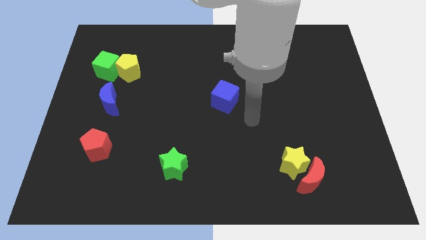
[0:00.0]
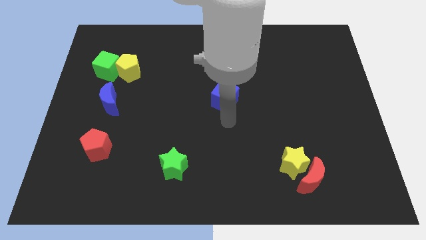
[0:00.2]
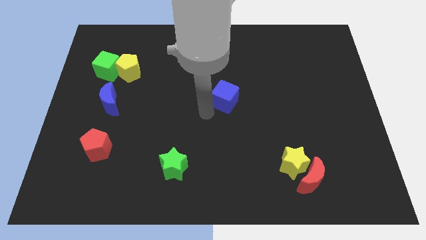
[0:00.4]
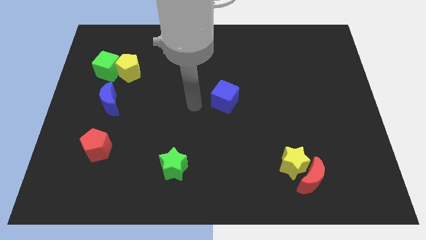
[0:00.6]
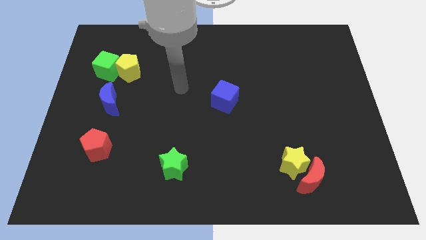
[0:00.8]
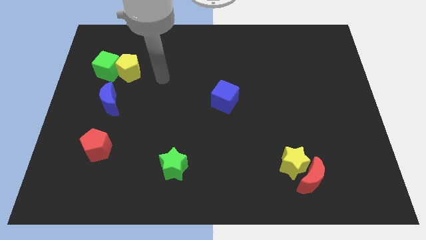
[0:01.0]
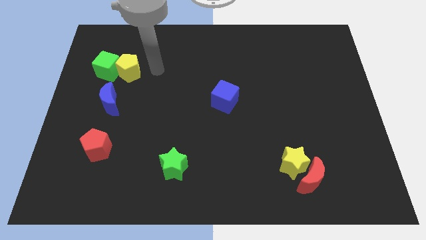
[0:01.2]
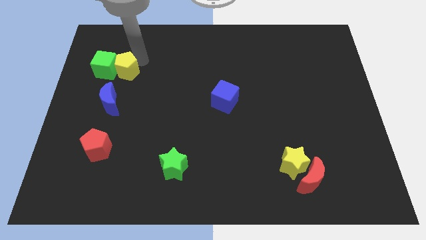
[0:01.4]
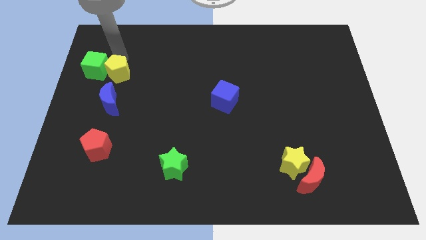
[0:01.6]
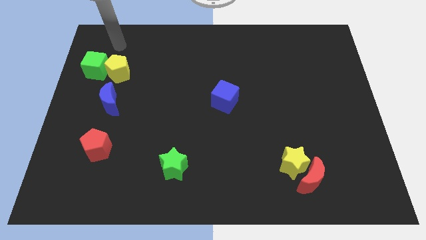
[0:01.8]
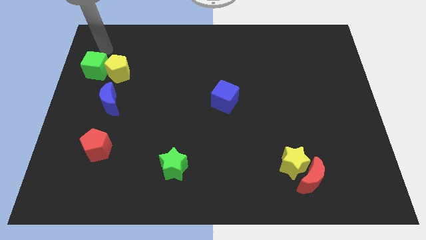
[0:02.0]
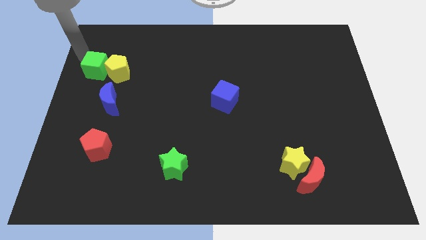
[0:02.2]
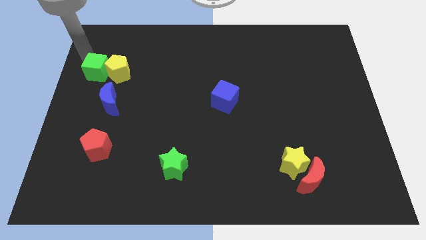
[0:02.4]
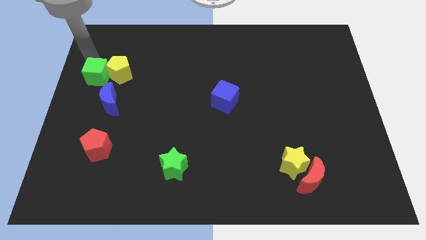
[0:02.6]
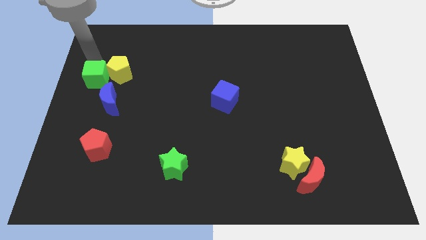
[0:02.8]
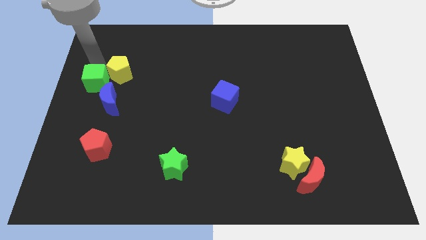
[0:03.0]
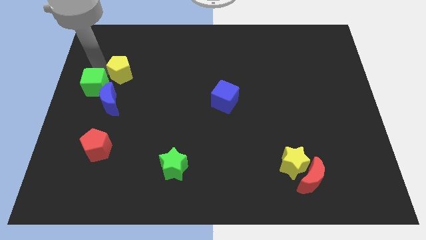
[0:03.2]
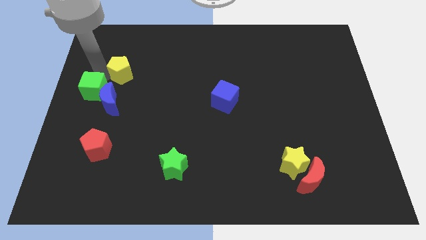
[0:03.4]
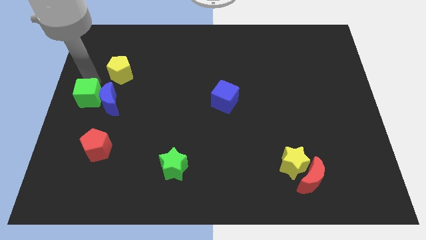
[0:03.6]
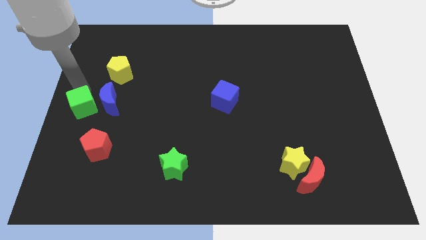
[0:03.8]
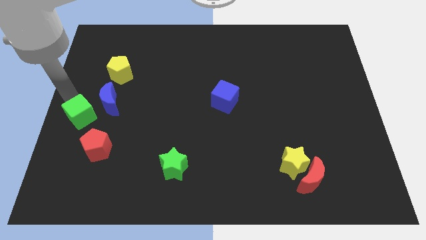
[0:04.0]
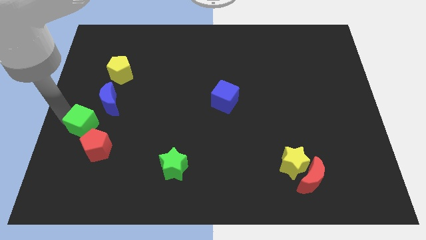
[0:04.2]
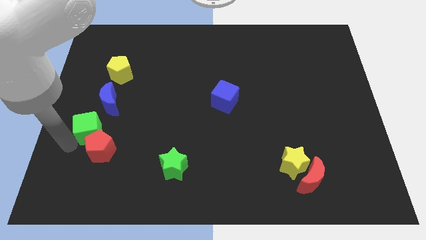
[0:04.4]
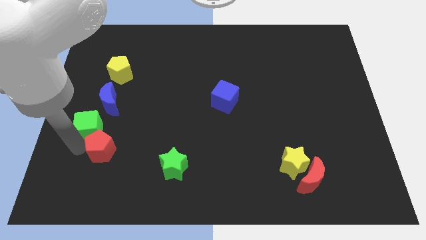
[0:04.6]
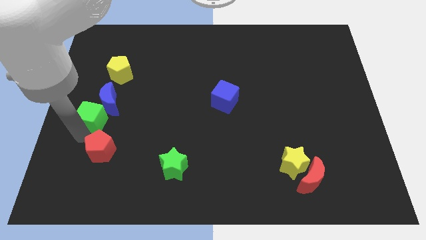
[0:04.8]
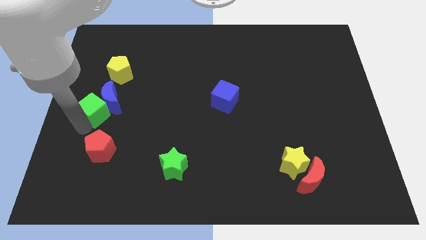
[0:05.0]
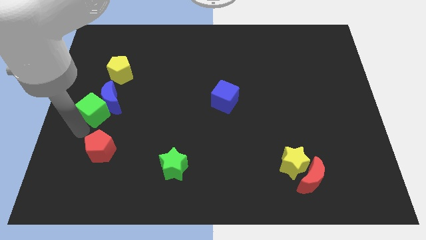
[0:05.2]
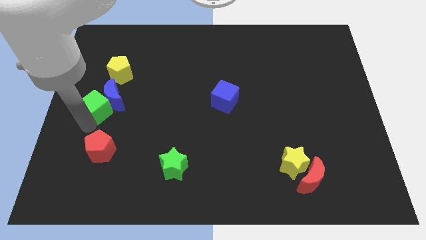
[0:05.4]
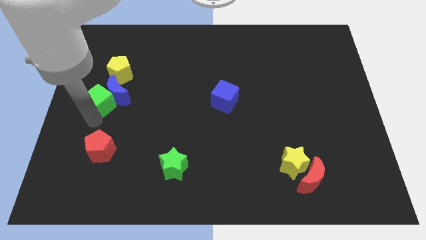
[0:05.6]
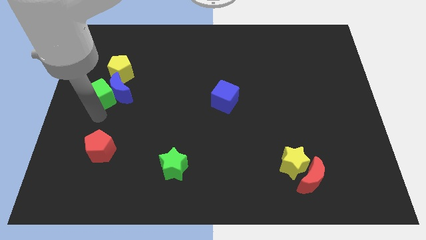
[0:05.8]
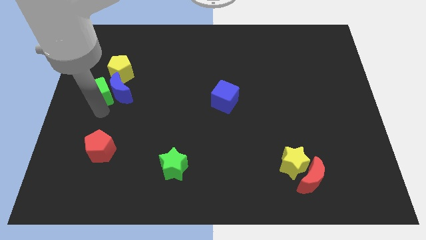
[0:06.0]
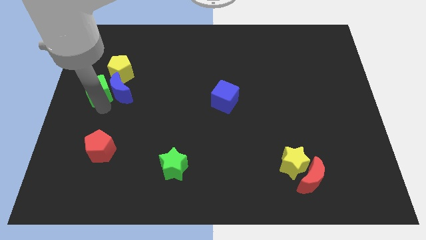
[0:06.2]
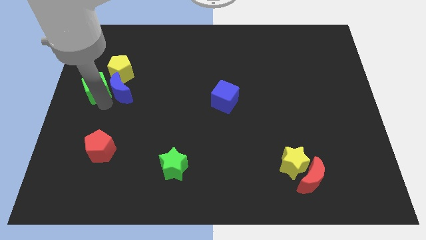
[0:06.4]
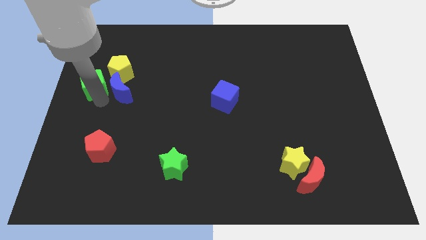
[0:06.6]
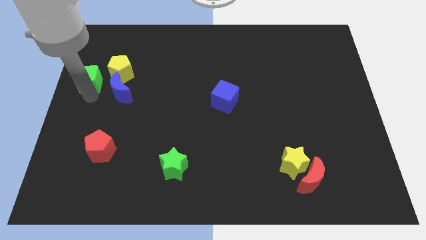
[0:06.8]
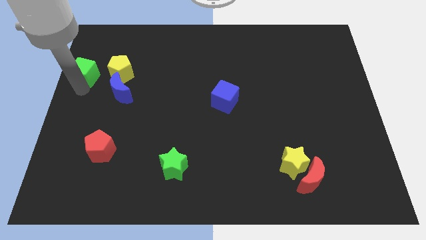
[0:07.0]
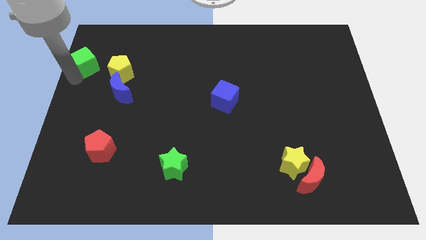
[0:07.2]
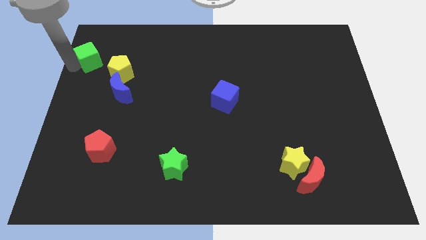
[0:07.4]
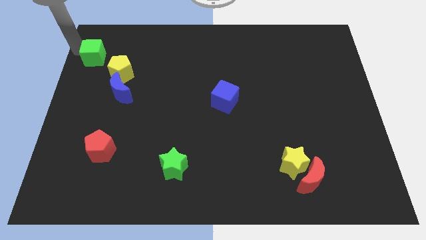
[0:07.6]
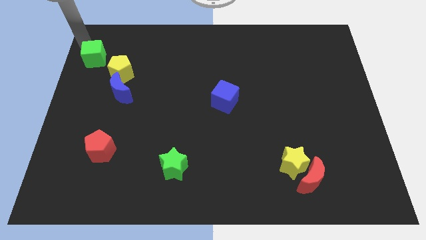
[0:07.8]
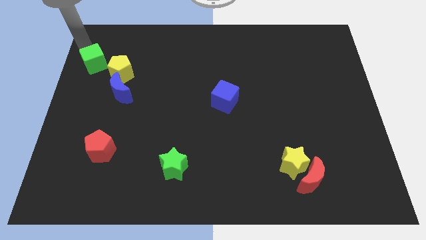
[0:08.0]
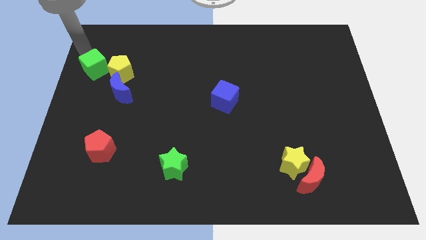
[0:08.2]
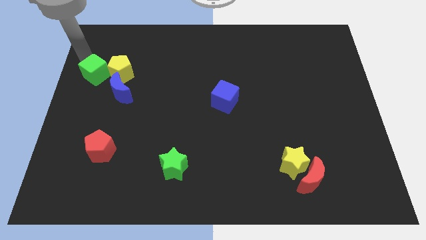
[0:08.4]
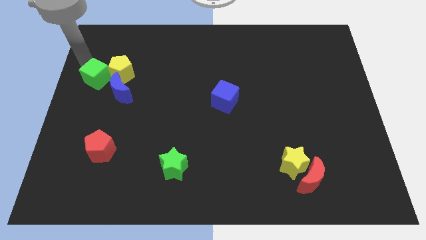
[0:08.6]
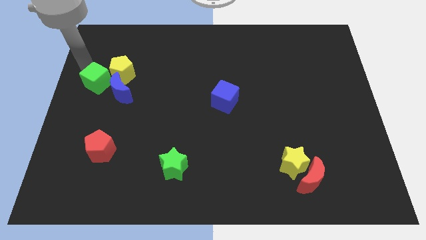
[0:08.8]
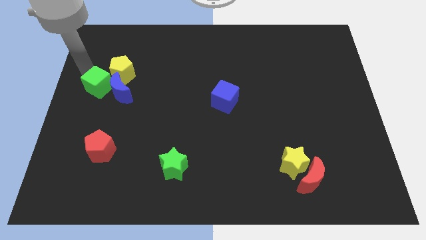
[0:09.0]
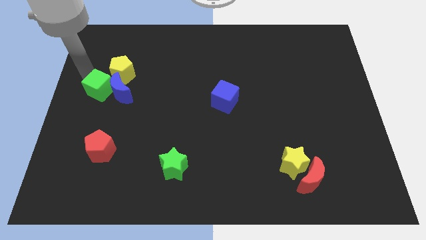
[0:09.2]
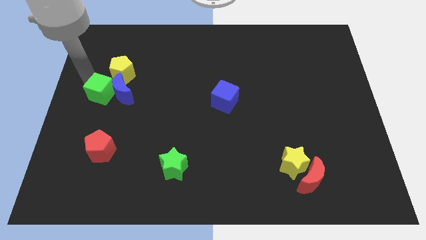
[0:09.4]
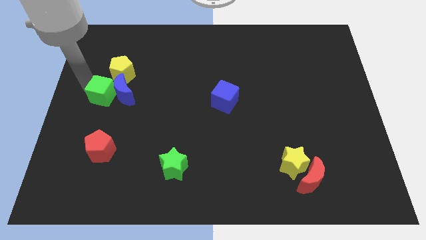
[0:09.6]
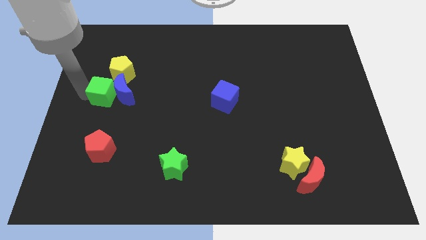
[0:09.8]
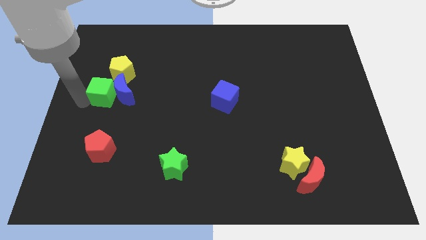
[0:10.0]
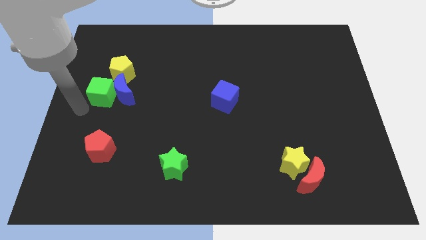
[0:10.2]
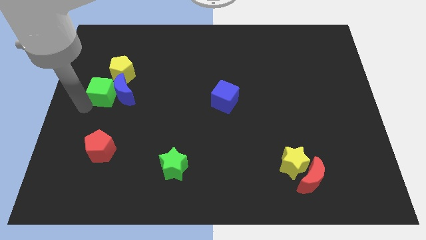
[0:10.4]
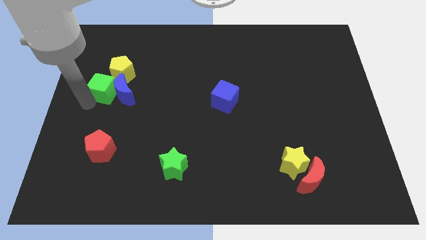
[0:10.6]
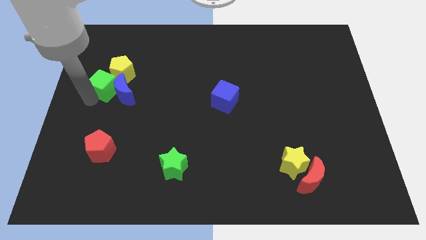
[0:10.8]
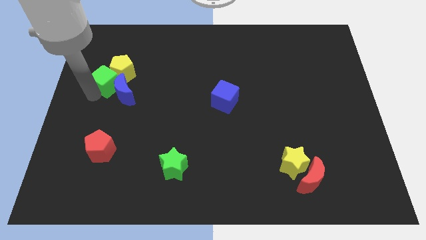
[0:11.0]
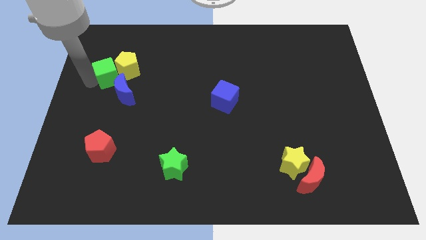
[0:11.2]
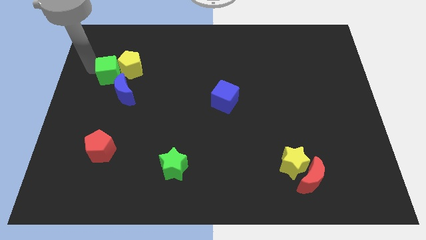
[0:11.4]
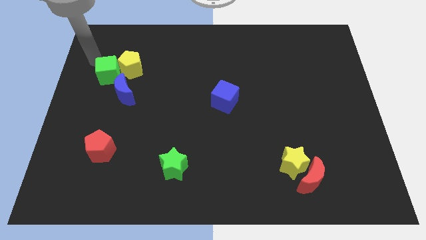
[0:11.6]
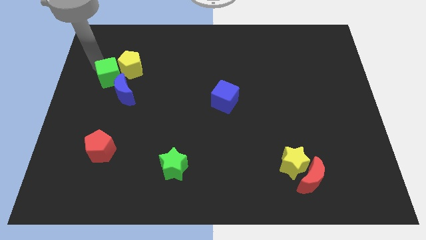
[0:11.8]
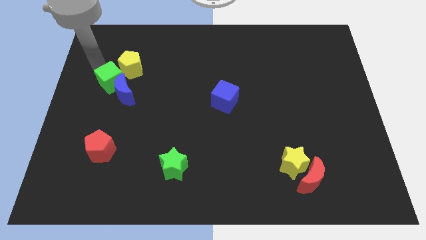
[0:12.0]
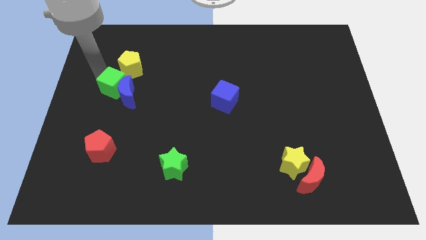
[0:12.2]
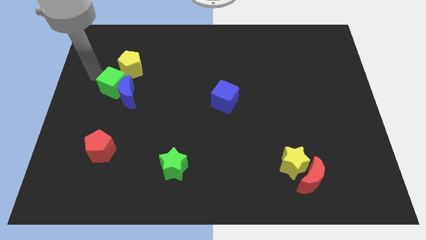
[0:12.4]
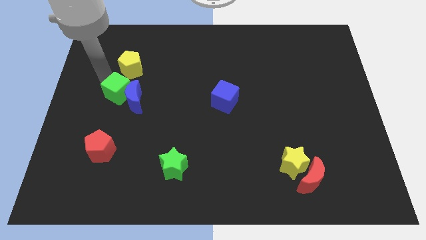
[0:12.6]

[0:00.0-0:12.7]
slide the green cube down and right slightly

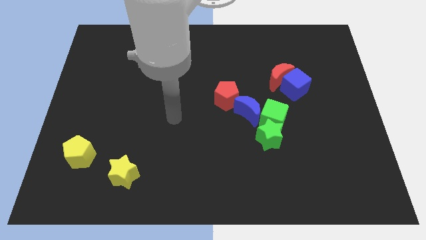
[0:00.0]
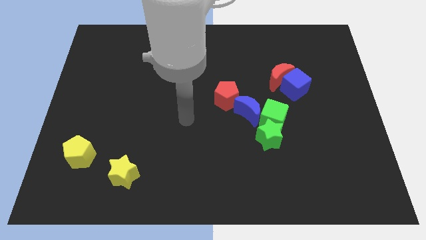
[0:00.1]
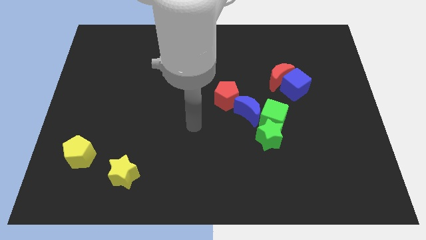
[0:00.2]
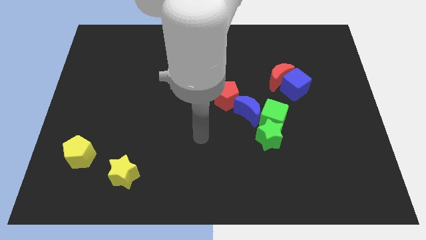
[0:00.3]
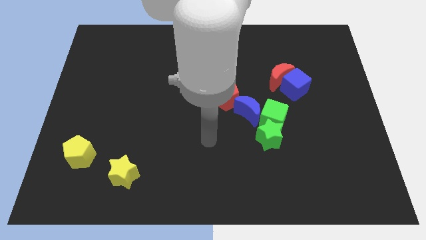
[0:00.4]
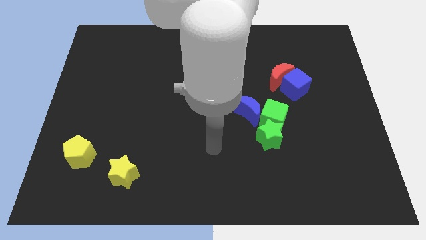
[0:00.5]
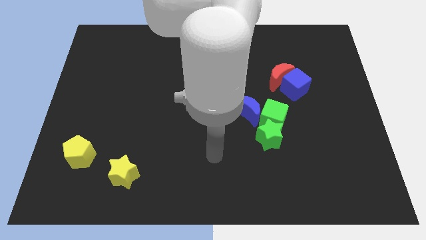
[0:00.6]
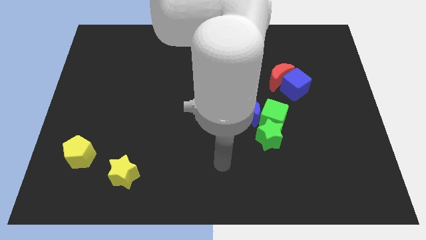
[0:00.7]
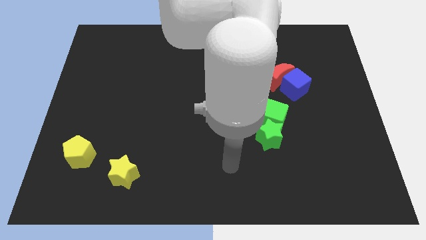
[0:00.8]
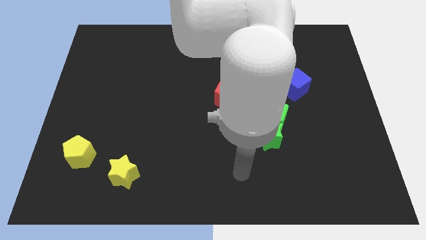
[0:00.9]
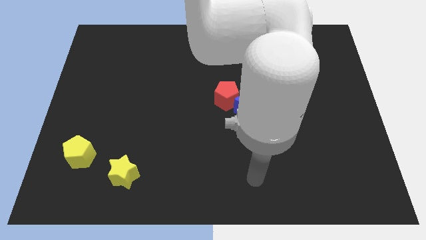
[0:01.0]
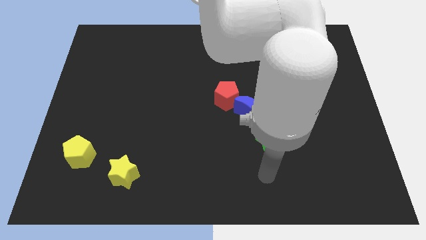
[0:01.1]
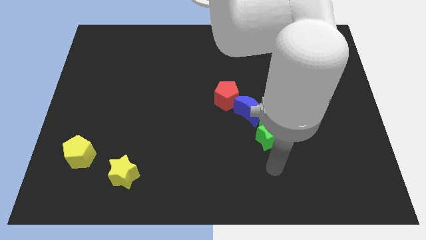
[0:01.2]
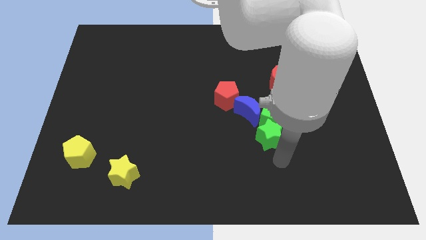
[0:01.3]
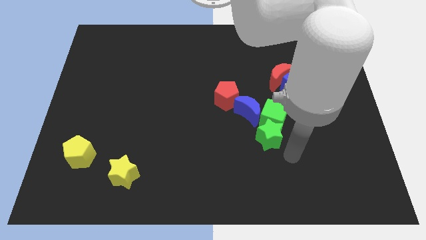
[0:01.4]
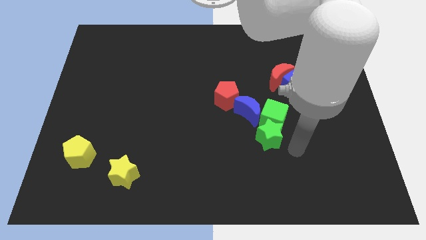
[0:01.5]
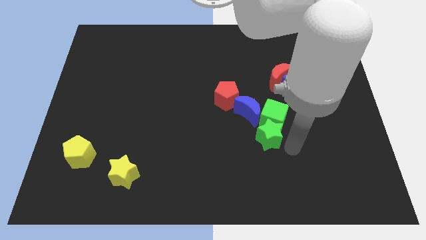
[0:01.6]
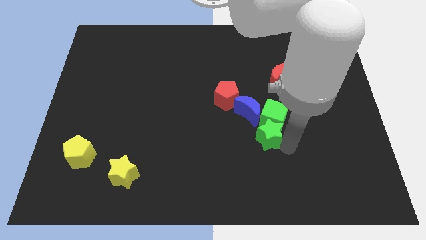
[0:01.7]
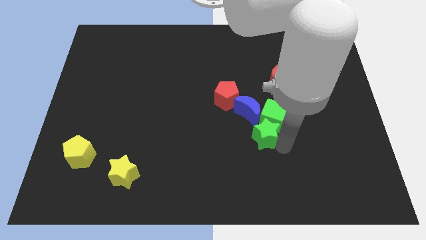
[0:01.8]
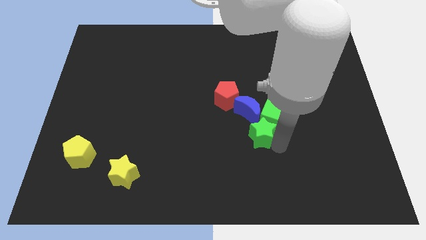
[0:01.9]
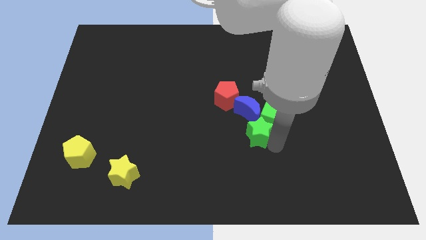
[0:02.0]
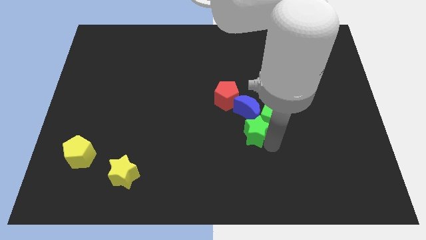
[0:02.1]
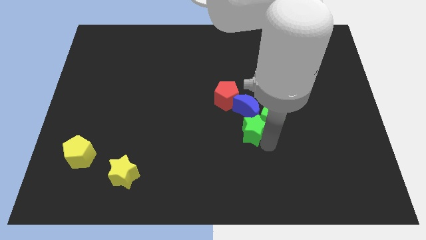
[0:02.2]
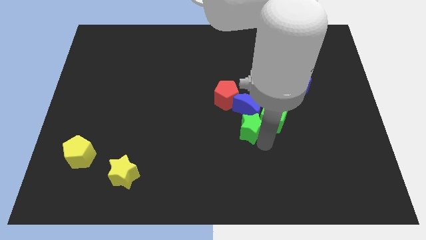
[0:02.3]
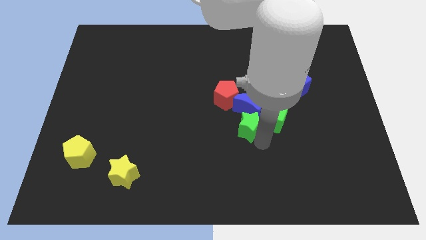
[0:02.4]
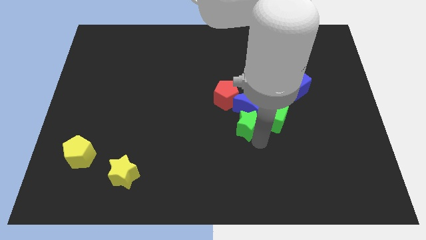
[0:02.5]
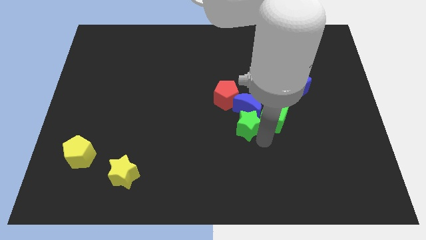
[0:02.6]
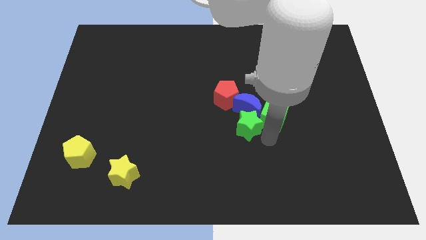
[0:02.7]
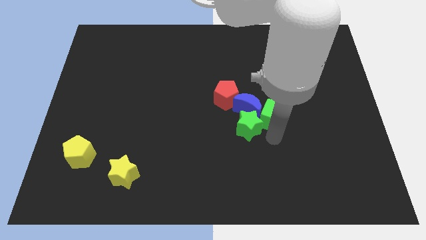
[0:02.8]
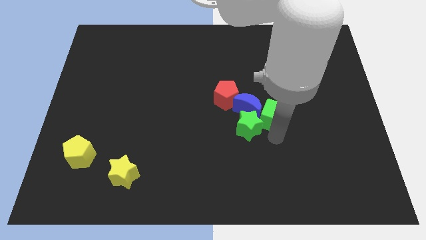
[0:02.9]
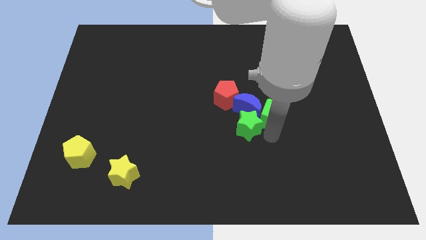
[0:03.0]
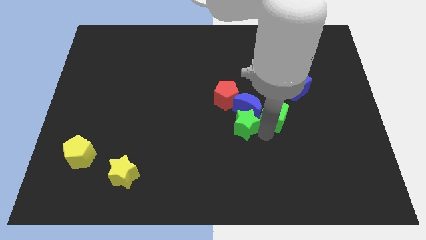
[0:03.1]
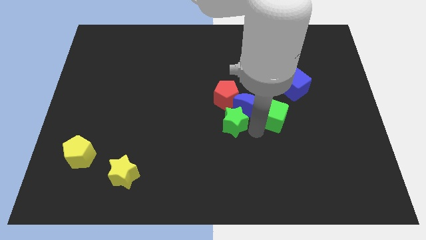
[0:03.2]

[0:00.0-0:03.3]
move the green star somewhat upwards and then left
